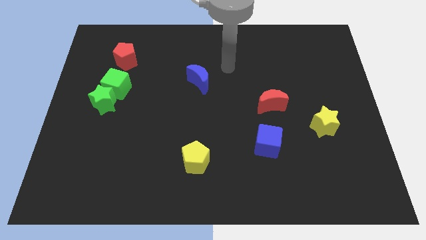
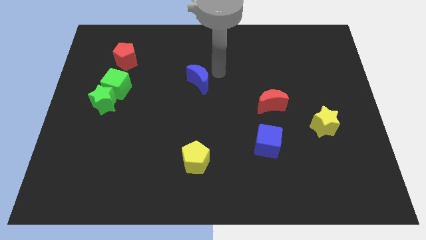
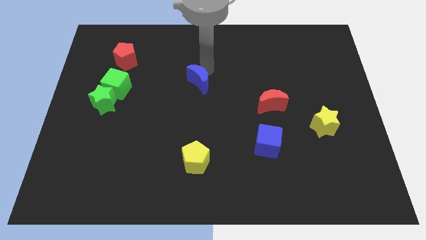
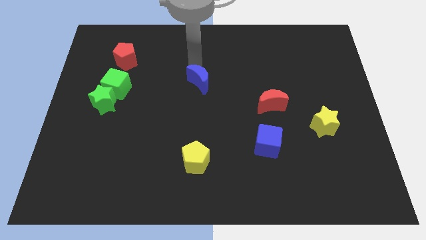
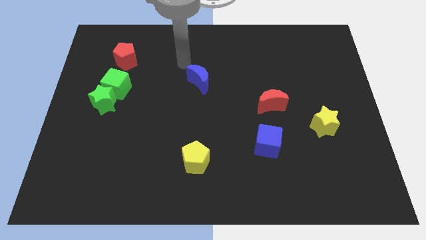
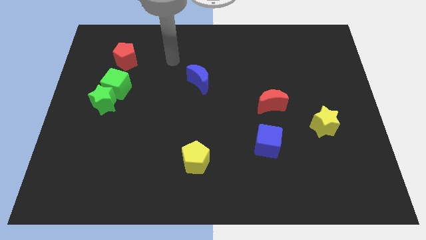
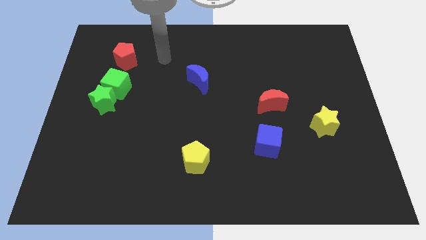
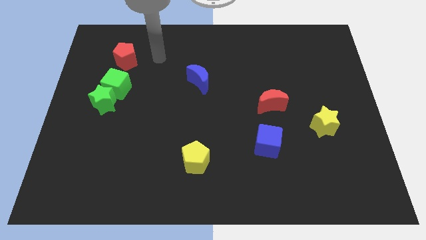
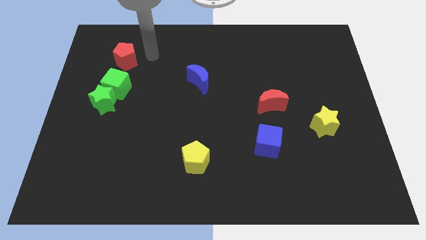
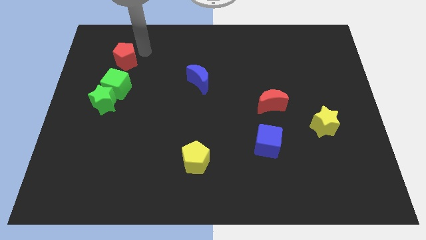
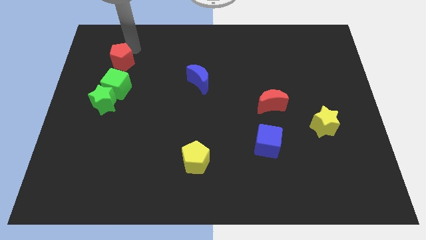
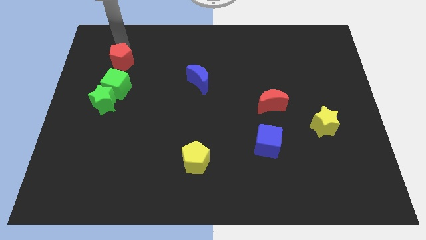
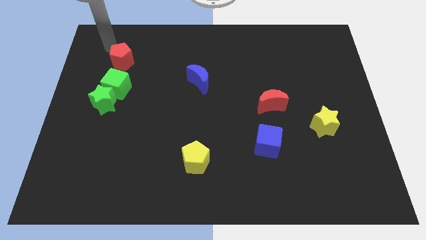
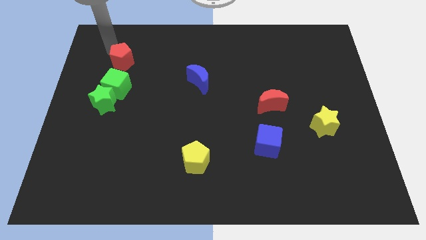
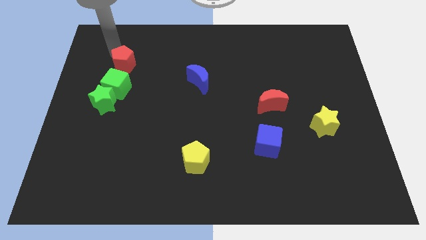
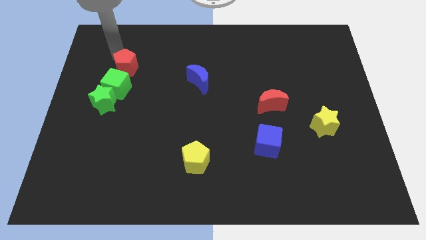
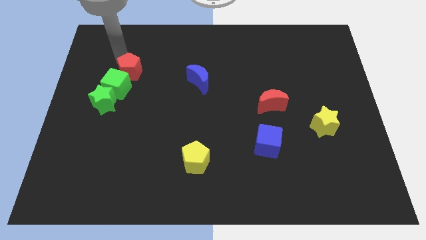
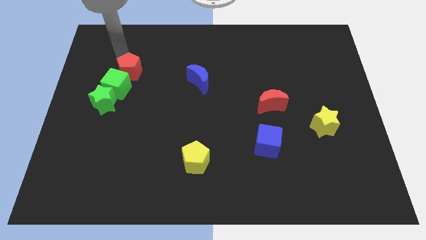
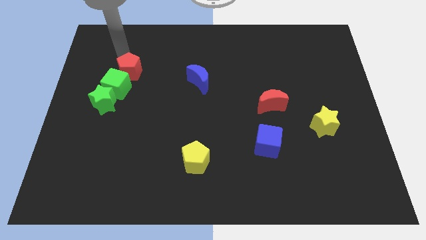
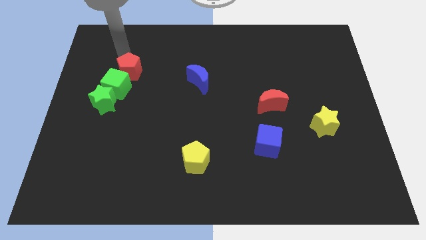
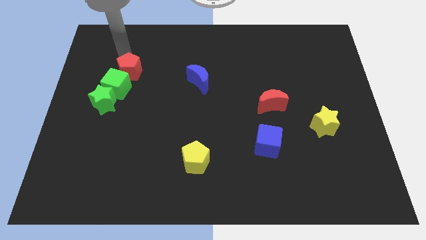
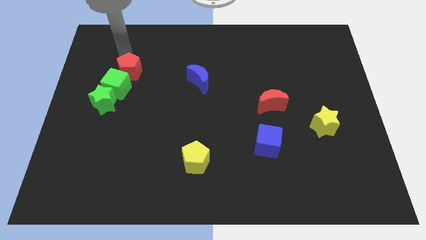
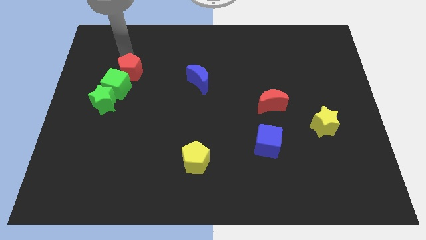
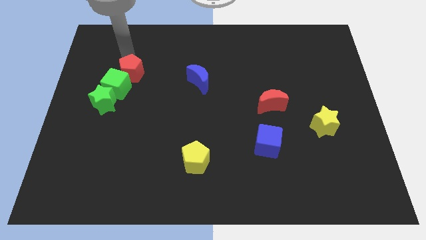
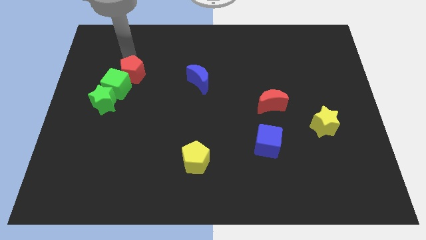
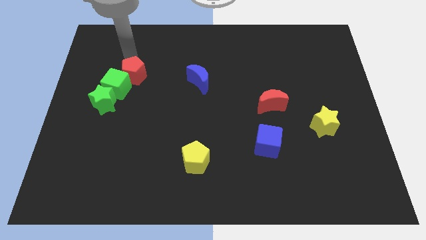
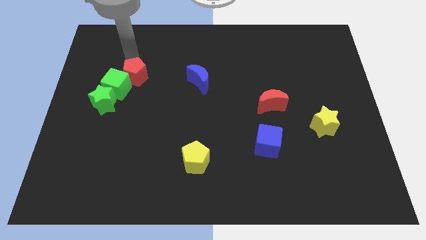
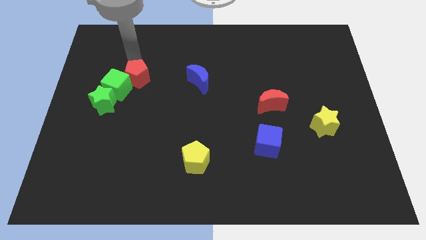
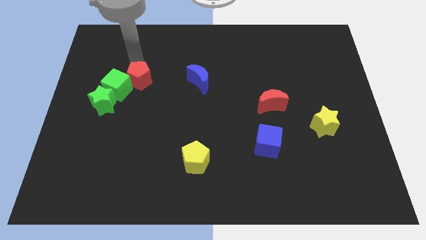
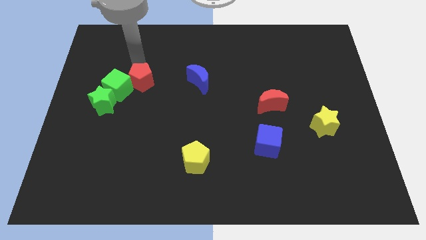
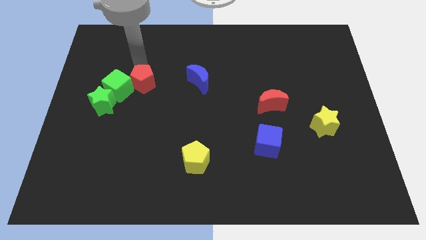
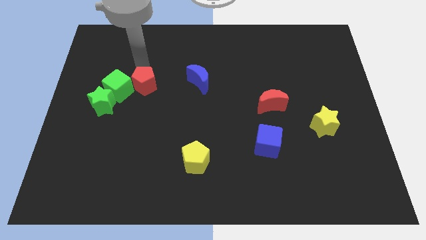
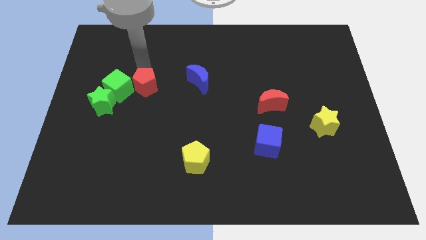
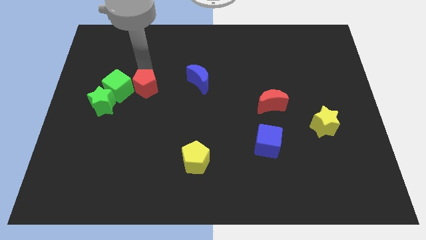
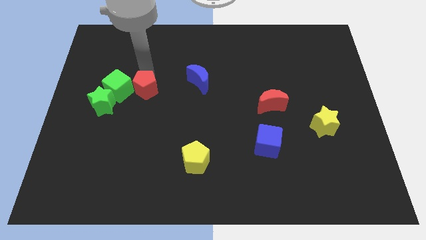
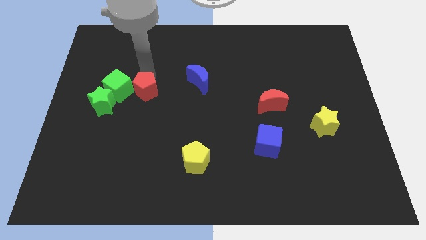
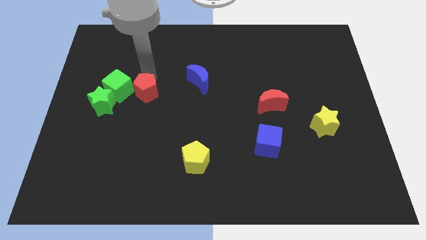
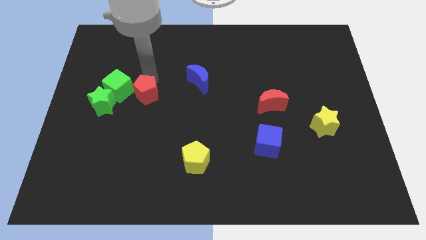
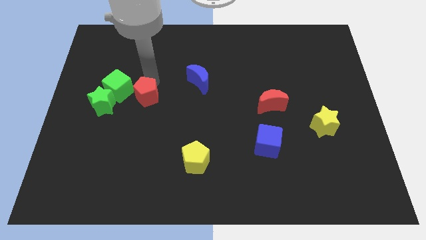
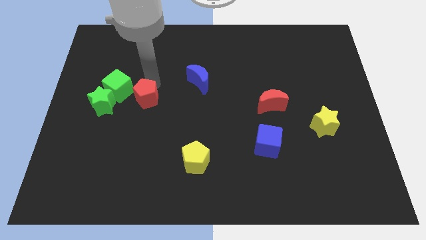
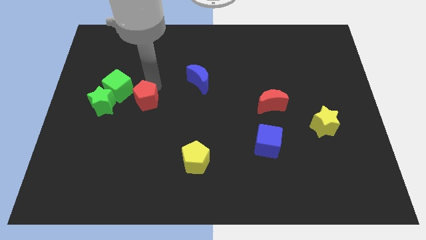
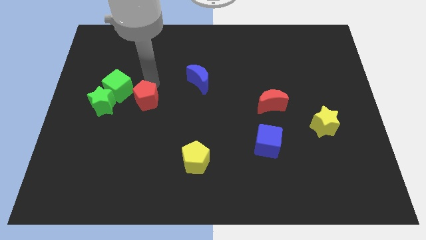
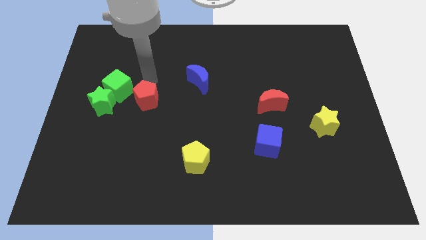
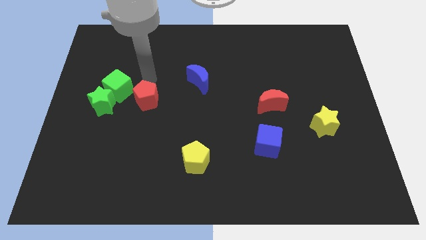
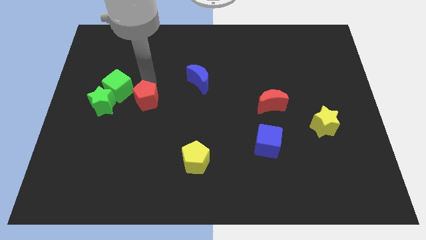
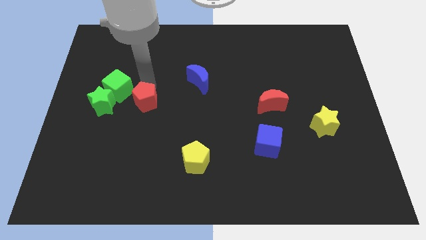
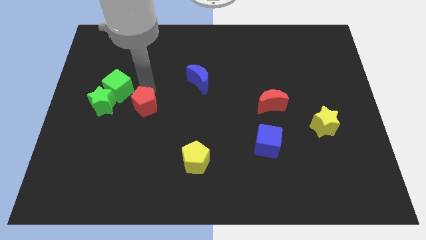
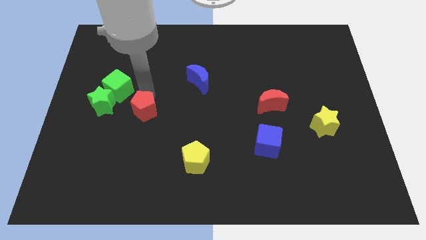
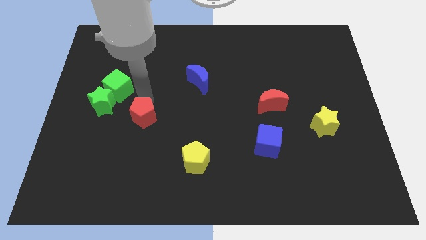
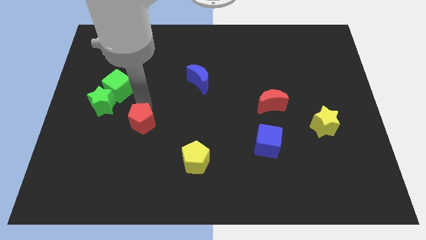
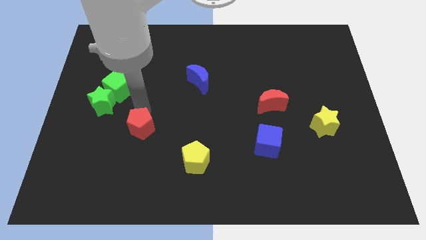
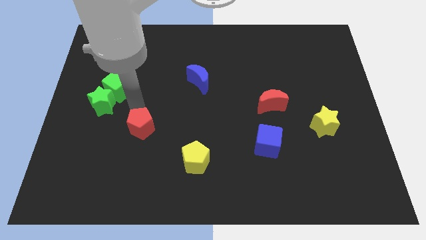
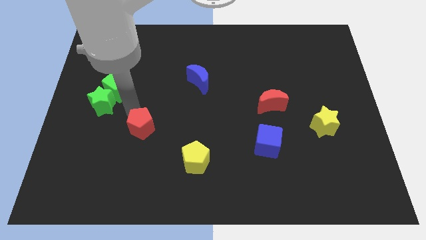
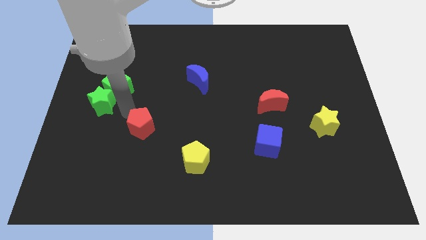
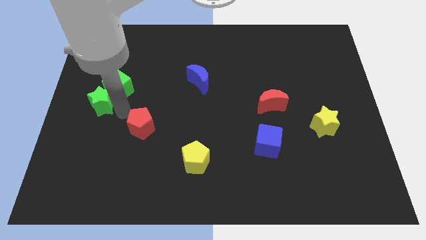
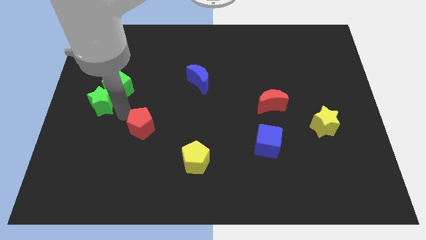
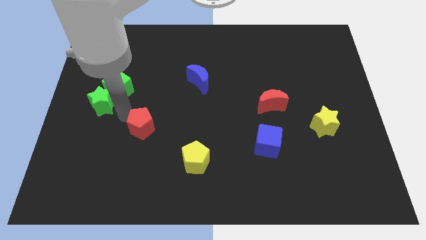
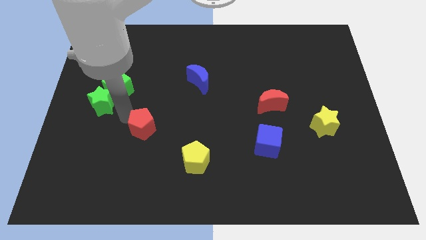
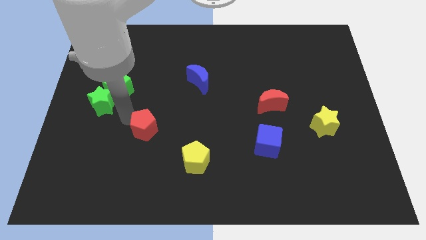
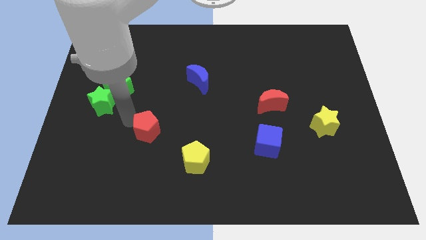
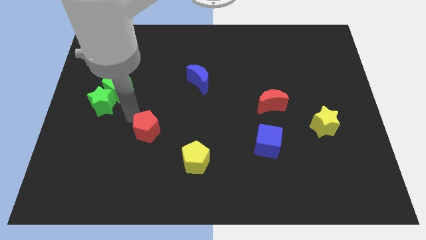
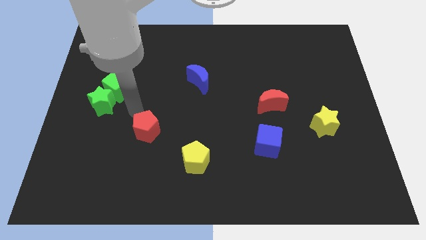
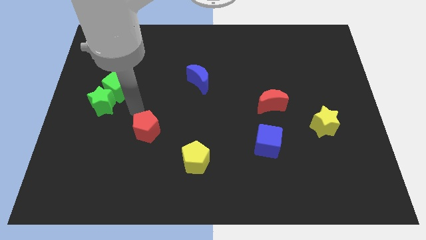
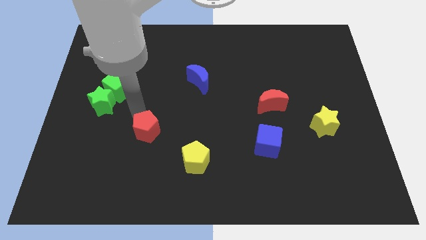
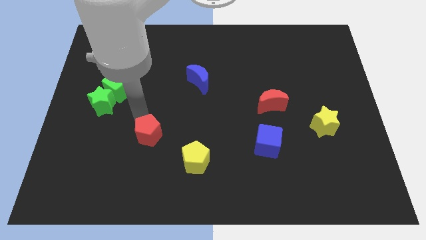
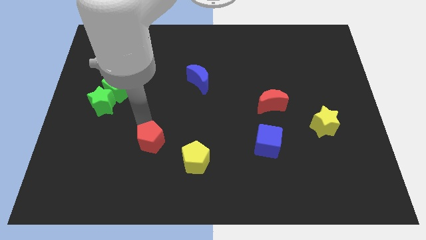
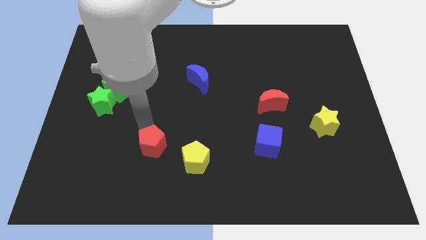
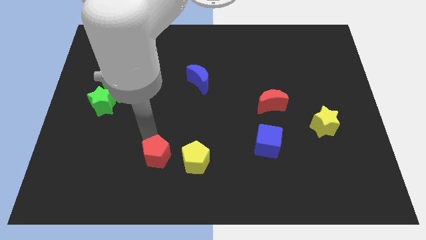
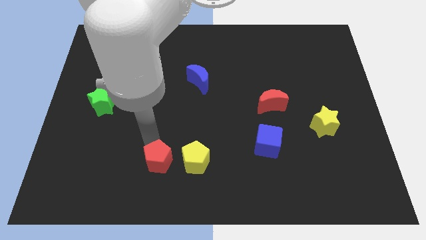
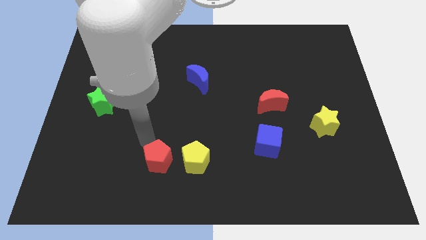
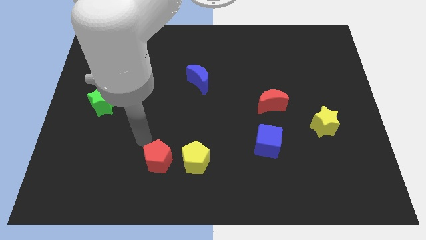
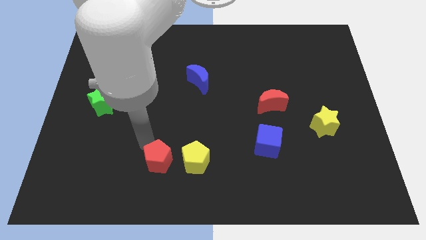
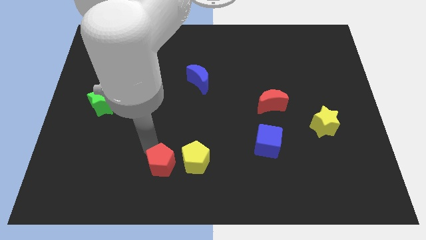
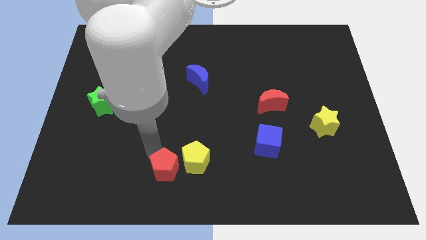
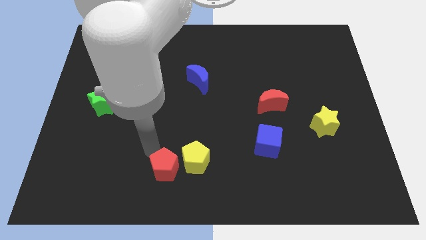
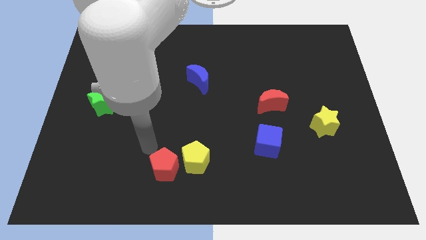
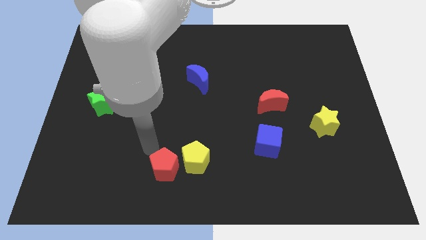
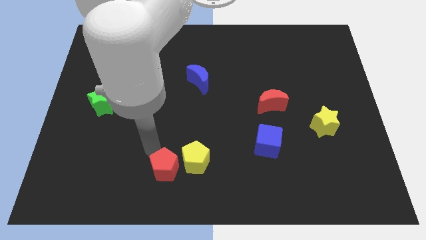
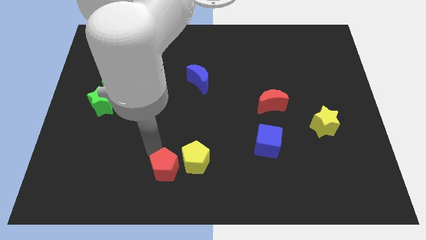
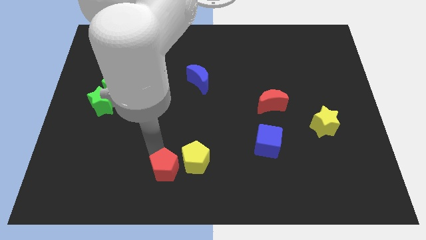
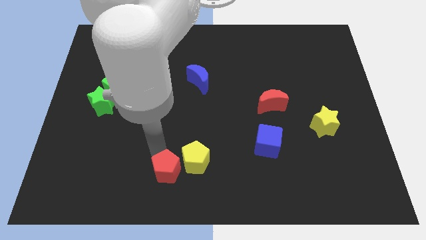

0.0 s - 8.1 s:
move the red pentagon to the bottom
